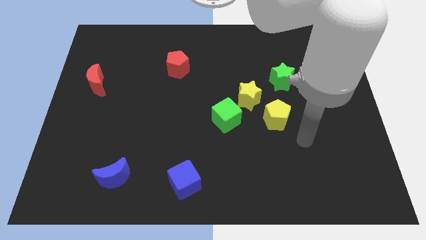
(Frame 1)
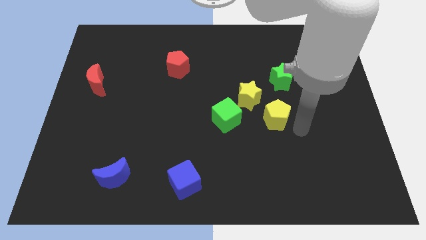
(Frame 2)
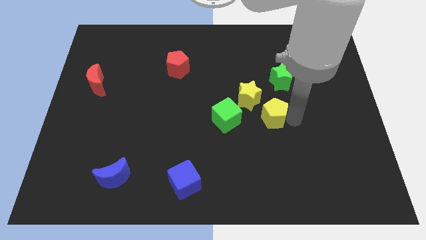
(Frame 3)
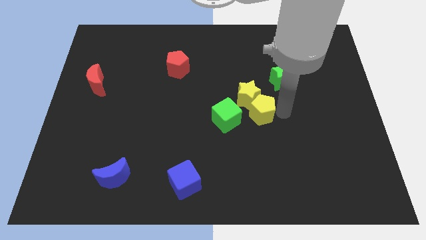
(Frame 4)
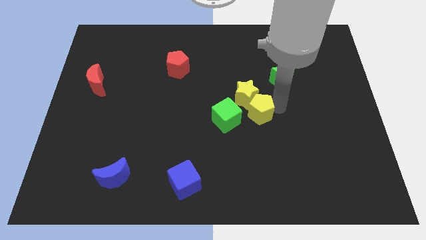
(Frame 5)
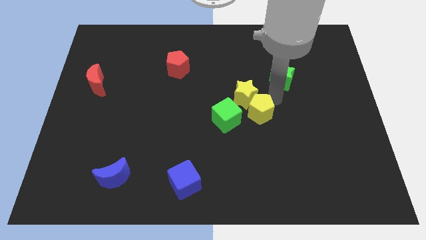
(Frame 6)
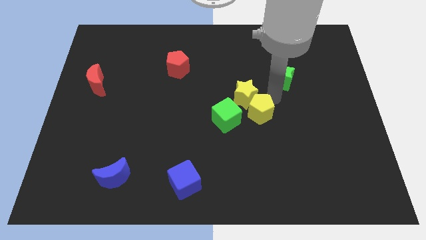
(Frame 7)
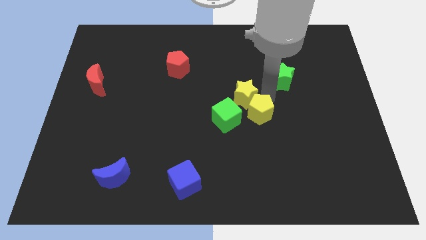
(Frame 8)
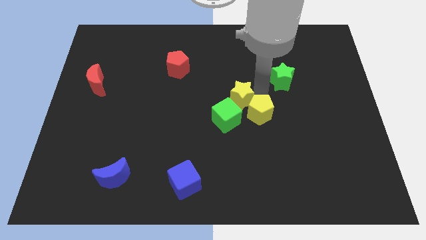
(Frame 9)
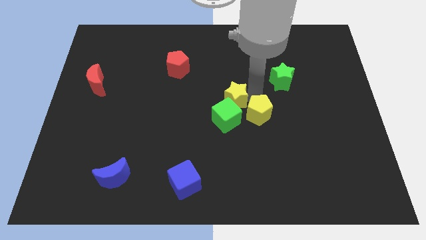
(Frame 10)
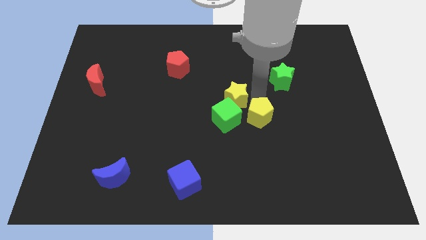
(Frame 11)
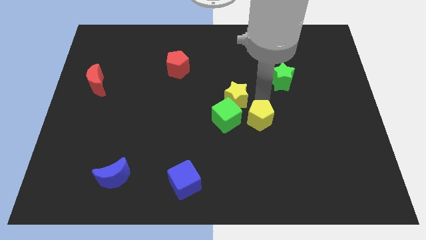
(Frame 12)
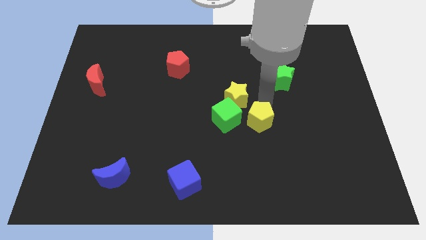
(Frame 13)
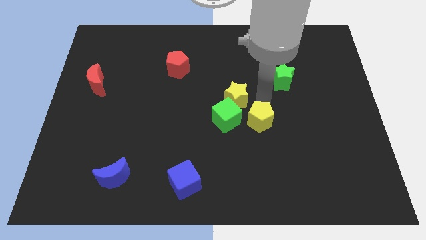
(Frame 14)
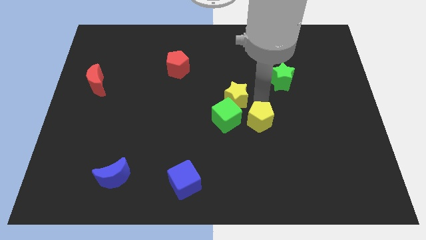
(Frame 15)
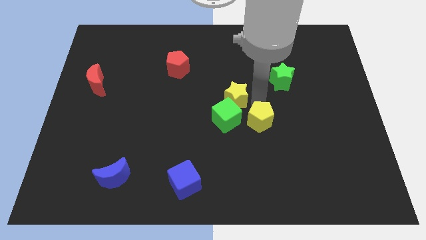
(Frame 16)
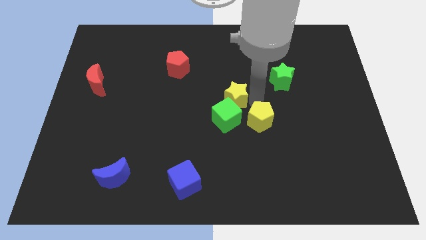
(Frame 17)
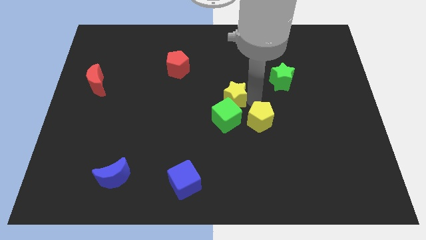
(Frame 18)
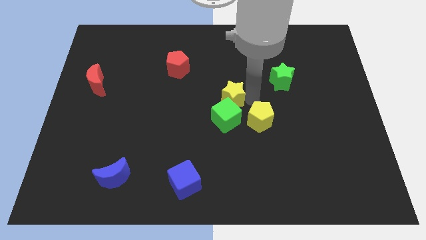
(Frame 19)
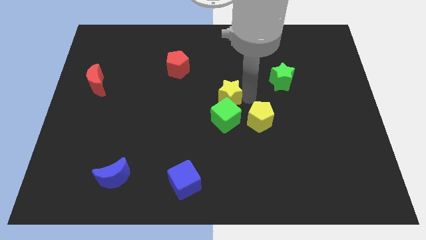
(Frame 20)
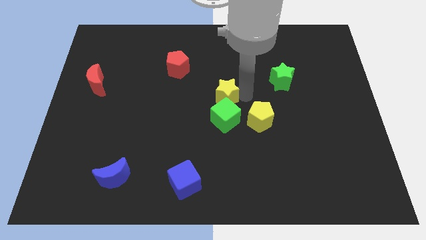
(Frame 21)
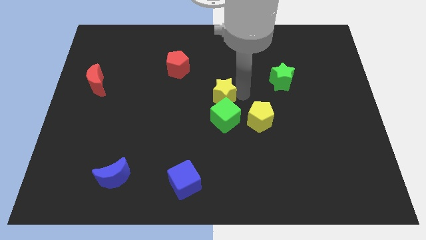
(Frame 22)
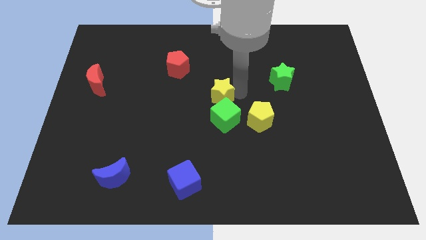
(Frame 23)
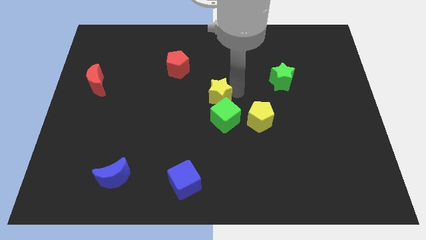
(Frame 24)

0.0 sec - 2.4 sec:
push the yellow star a little bit to the left

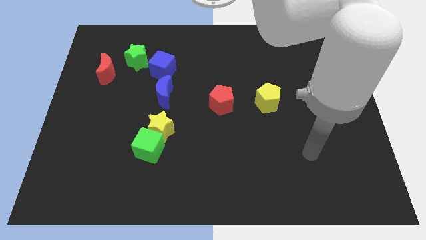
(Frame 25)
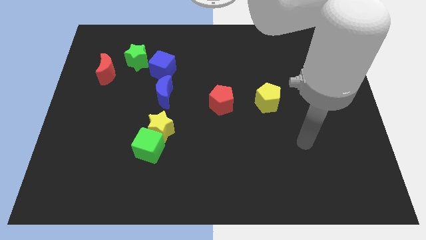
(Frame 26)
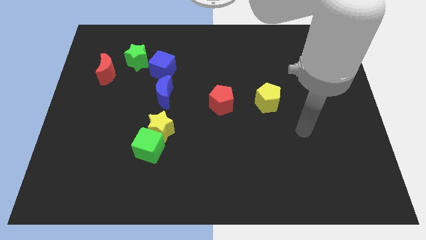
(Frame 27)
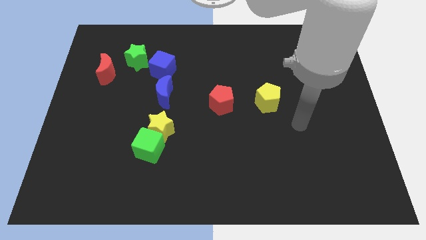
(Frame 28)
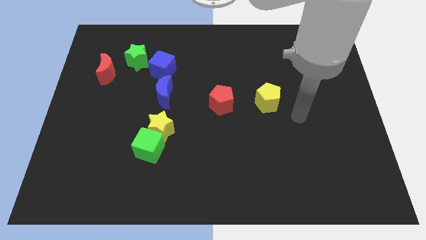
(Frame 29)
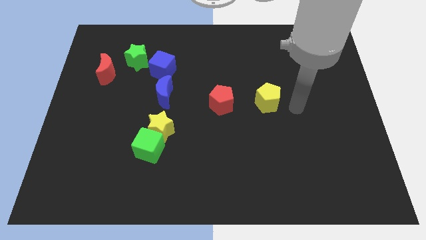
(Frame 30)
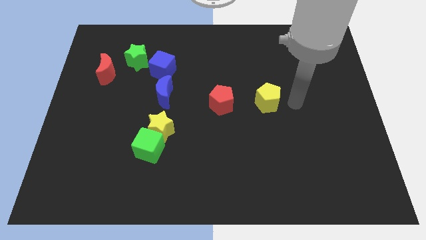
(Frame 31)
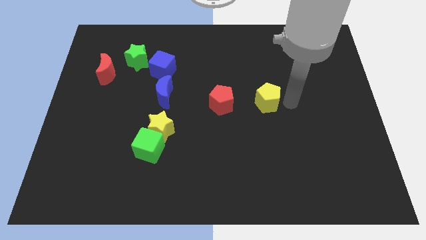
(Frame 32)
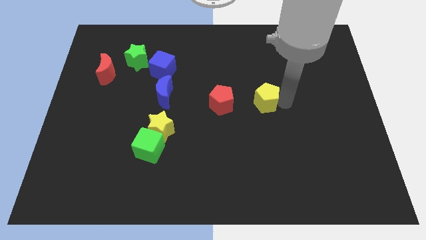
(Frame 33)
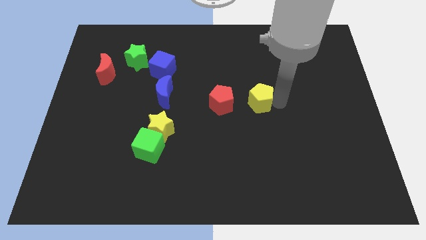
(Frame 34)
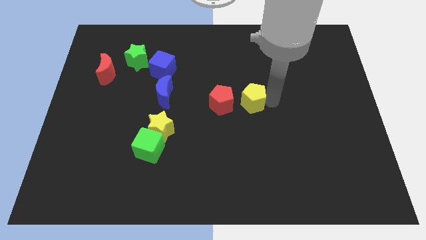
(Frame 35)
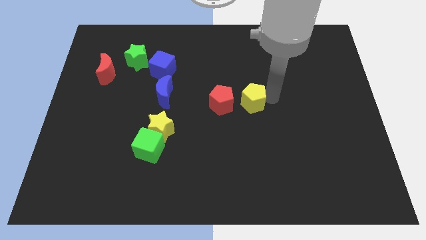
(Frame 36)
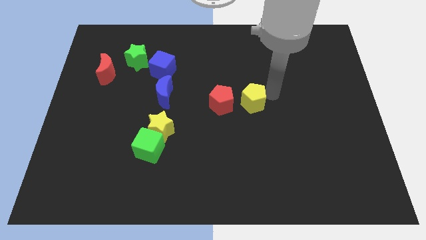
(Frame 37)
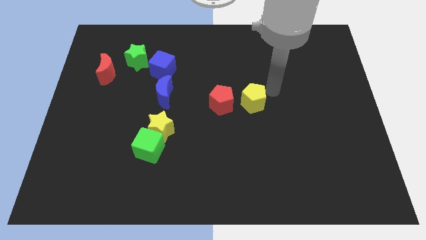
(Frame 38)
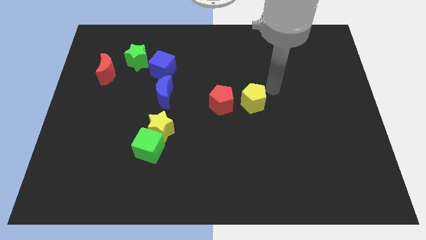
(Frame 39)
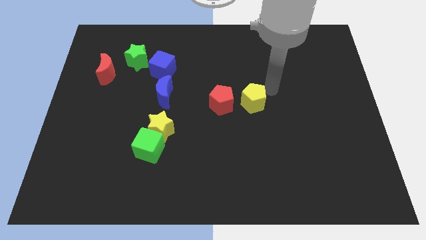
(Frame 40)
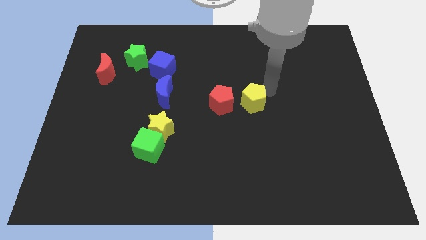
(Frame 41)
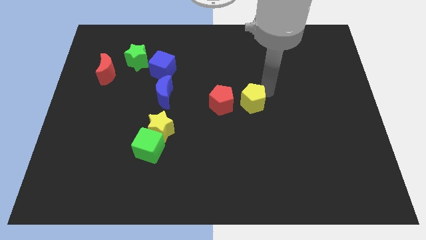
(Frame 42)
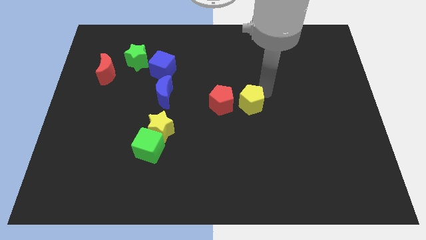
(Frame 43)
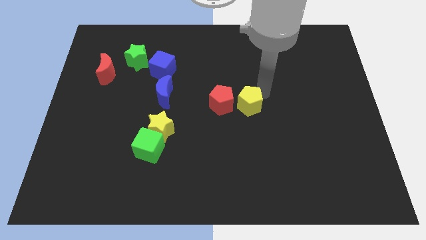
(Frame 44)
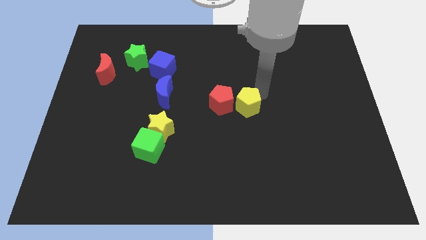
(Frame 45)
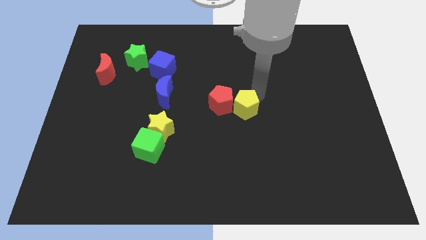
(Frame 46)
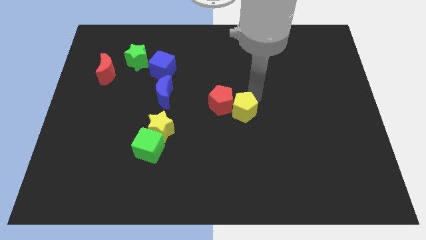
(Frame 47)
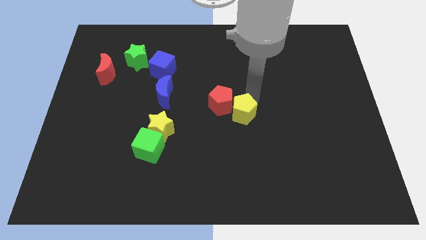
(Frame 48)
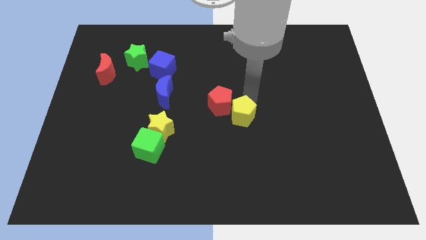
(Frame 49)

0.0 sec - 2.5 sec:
slightly move the yellow pentagon down and left

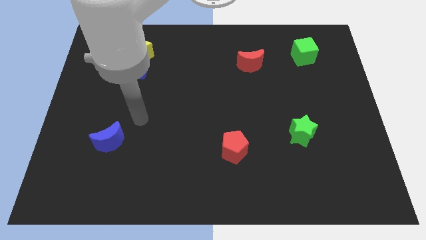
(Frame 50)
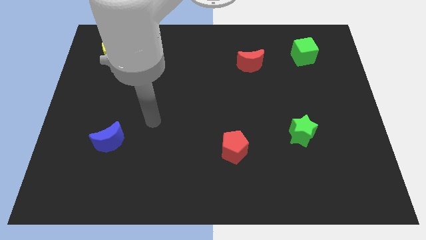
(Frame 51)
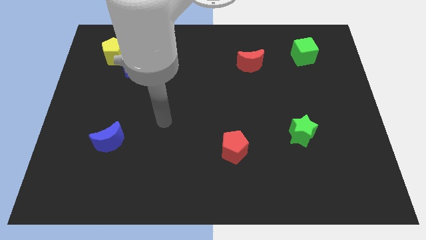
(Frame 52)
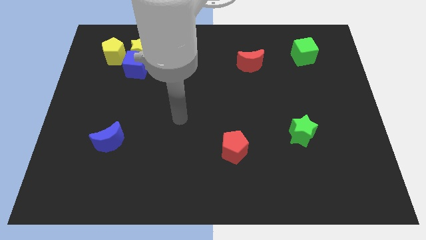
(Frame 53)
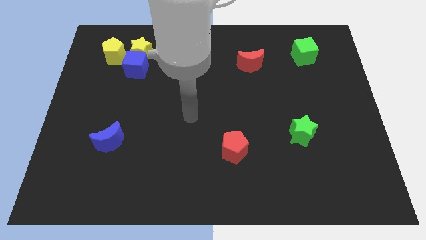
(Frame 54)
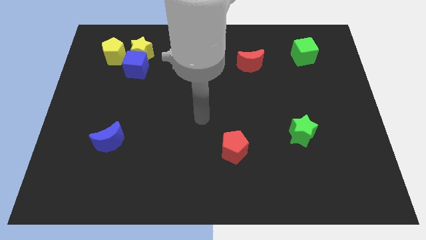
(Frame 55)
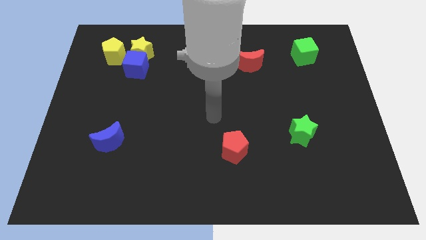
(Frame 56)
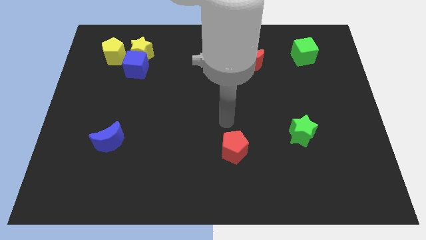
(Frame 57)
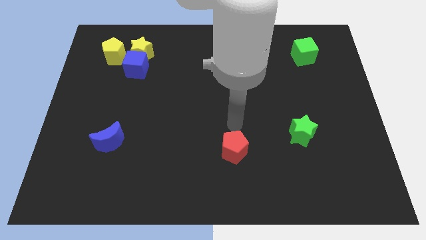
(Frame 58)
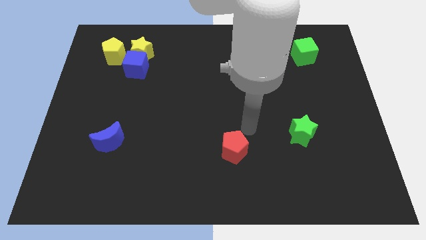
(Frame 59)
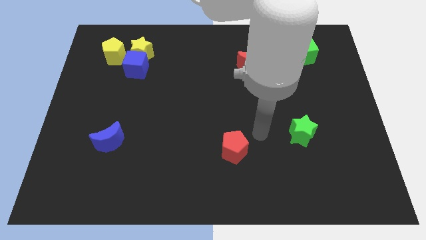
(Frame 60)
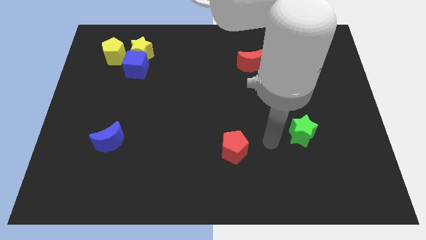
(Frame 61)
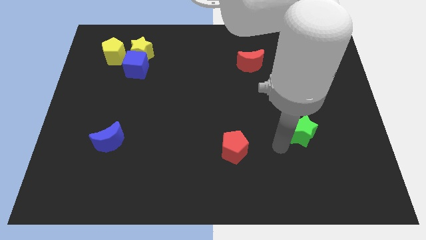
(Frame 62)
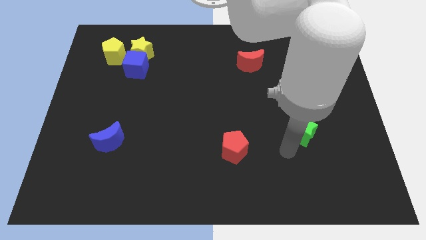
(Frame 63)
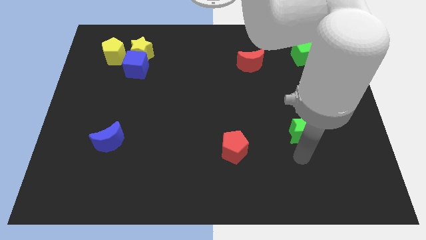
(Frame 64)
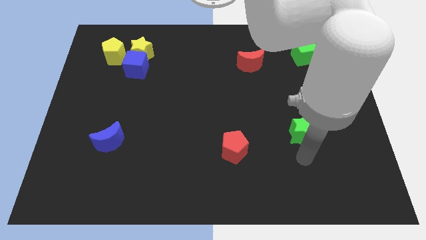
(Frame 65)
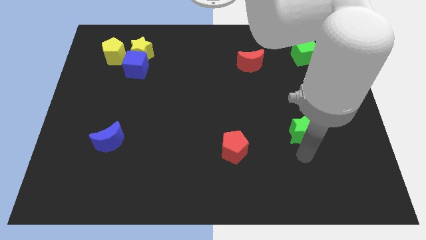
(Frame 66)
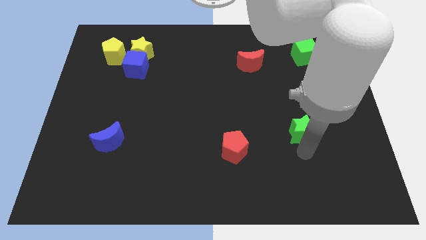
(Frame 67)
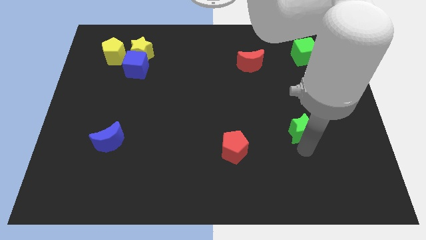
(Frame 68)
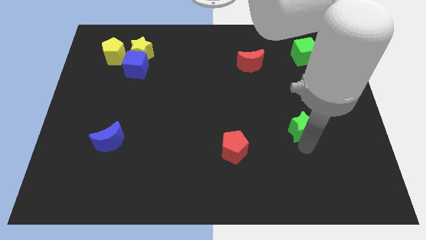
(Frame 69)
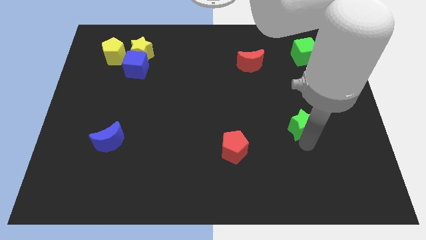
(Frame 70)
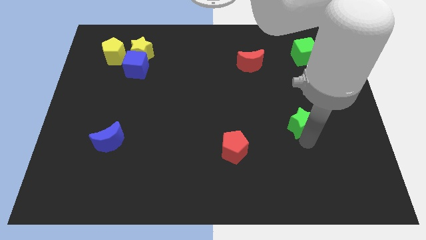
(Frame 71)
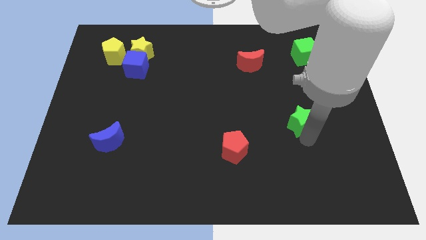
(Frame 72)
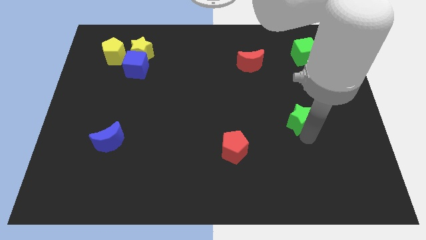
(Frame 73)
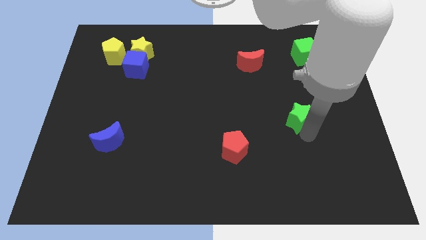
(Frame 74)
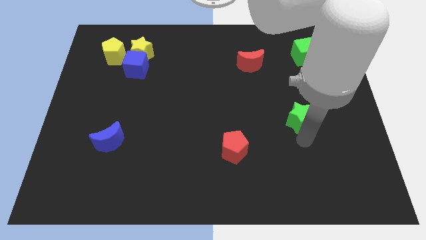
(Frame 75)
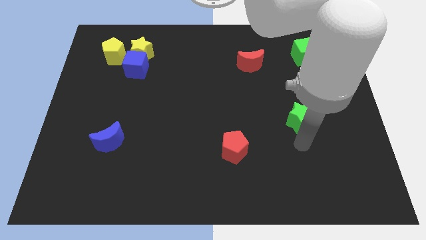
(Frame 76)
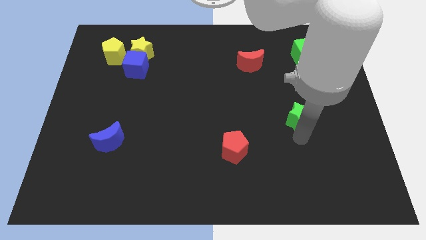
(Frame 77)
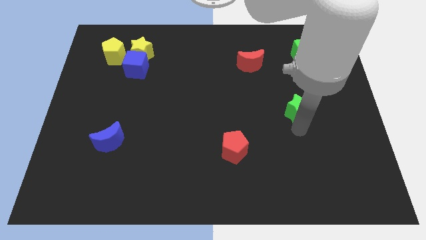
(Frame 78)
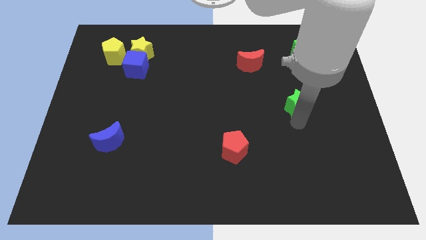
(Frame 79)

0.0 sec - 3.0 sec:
push the green star slightly up
